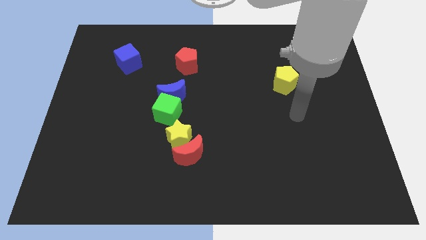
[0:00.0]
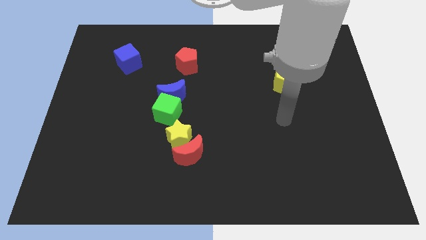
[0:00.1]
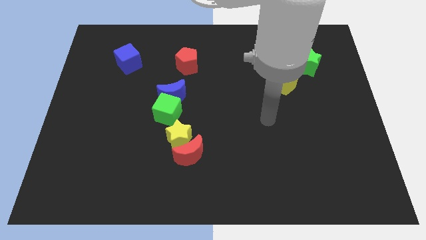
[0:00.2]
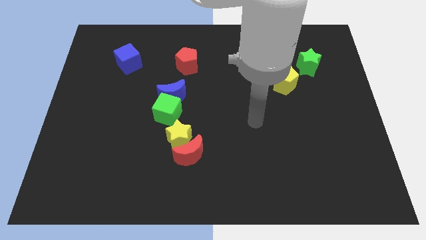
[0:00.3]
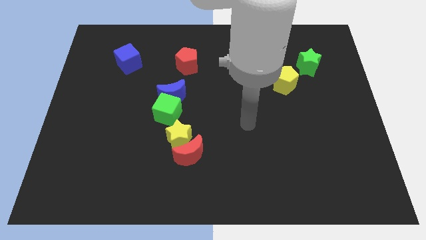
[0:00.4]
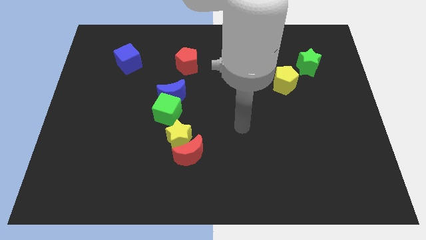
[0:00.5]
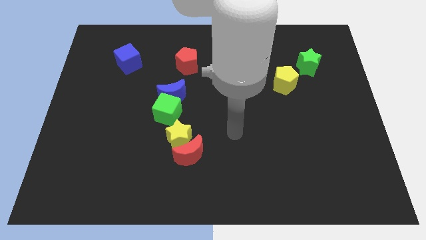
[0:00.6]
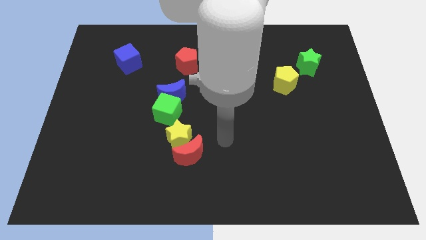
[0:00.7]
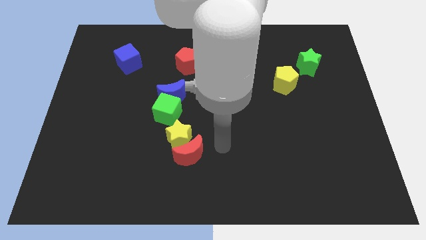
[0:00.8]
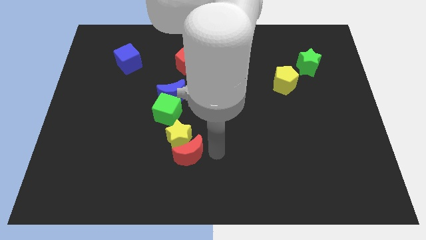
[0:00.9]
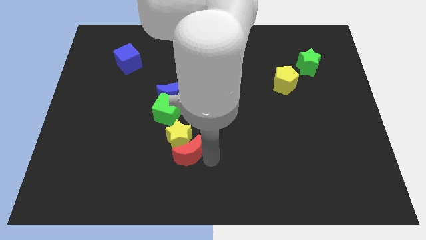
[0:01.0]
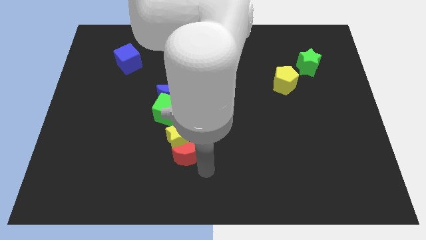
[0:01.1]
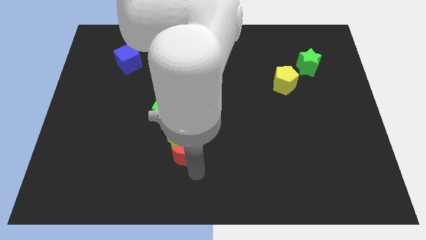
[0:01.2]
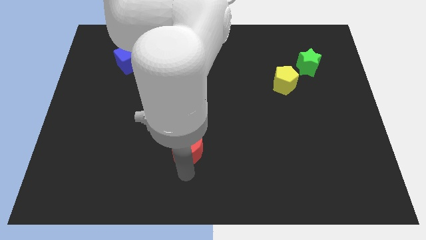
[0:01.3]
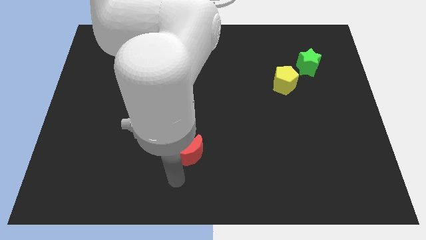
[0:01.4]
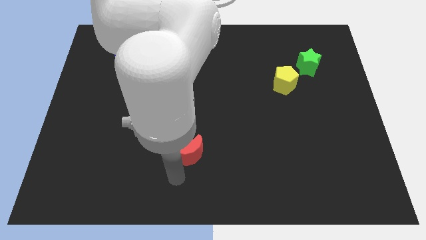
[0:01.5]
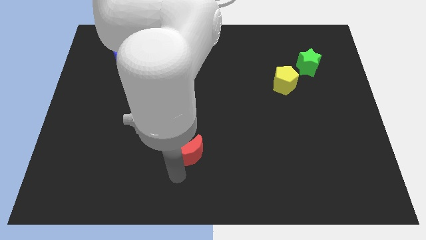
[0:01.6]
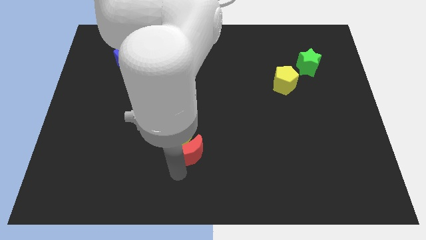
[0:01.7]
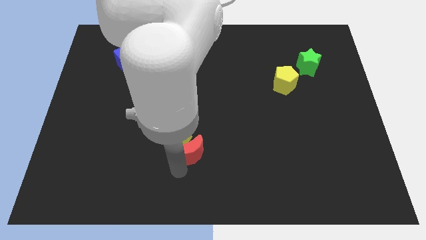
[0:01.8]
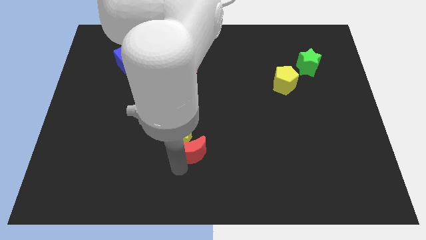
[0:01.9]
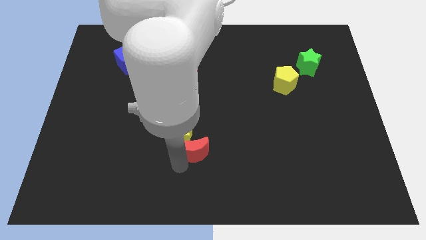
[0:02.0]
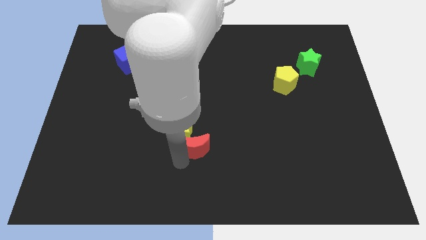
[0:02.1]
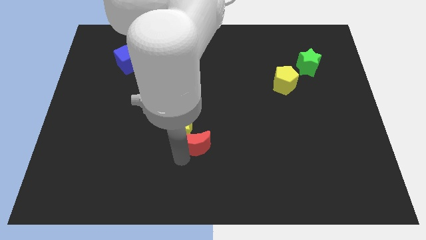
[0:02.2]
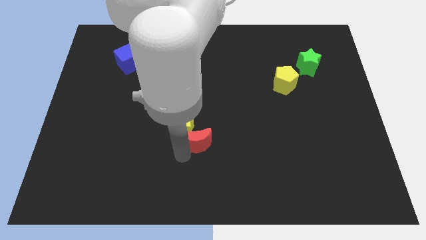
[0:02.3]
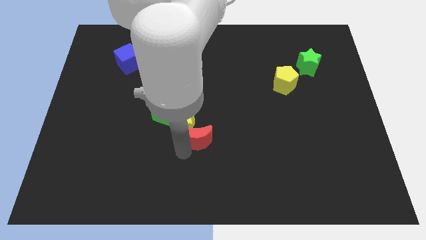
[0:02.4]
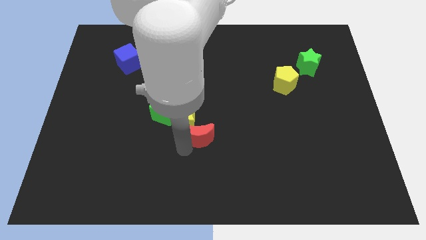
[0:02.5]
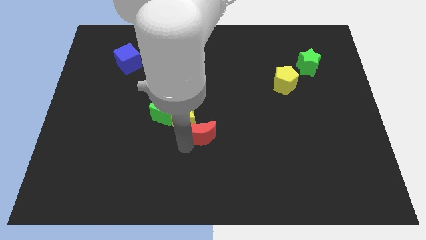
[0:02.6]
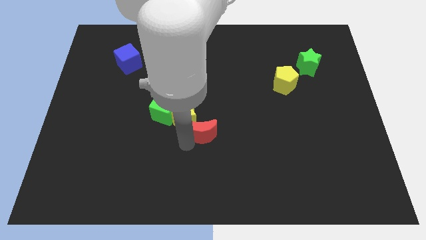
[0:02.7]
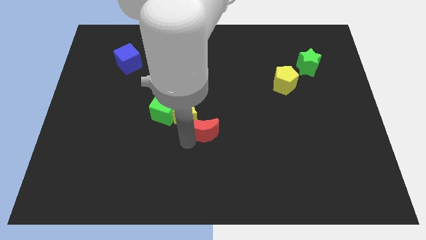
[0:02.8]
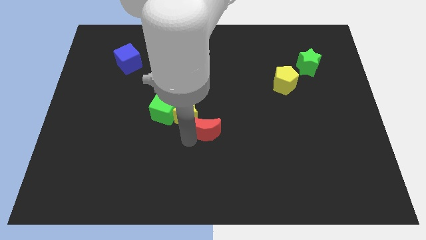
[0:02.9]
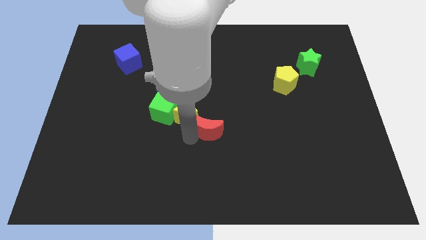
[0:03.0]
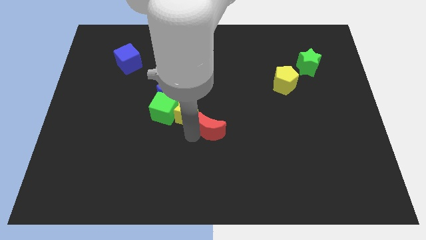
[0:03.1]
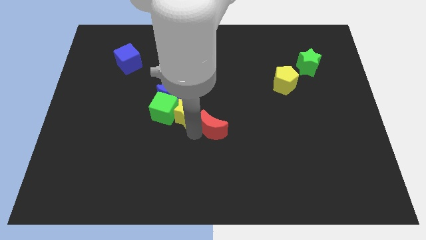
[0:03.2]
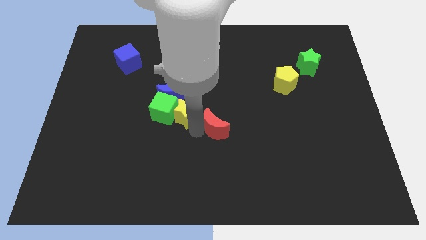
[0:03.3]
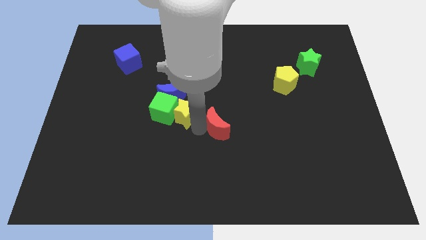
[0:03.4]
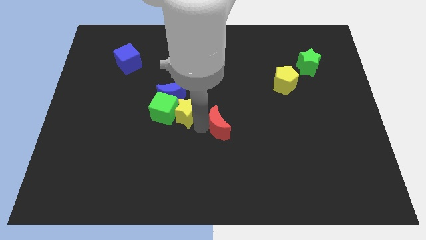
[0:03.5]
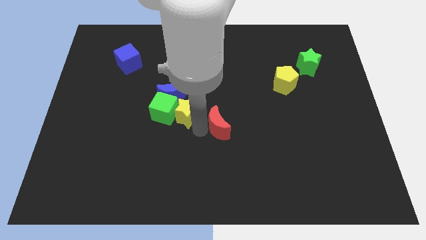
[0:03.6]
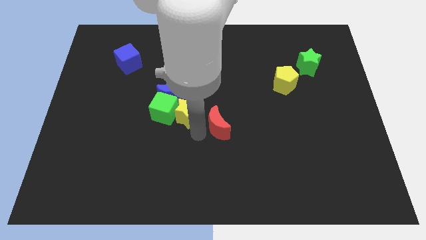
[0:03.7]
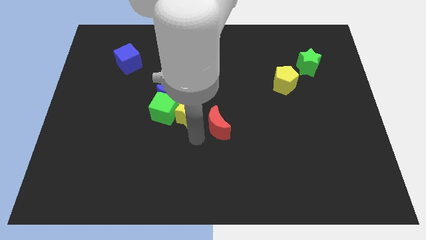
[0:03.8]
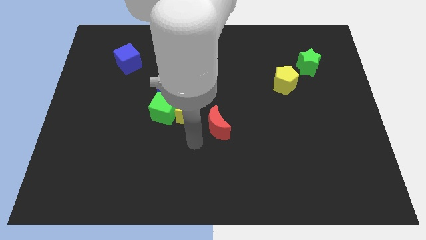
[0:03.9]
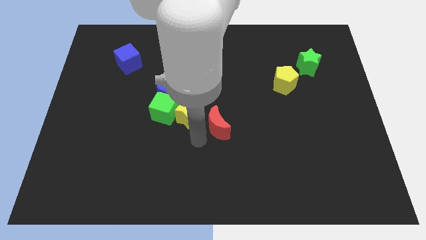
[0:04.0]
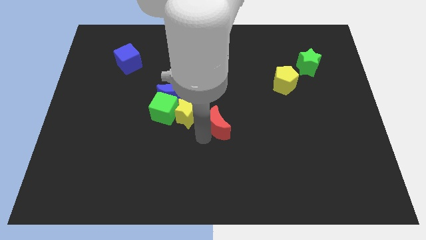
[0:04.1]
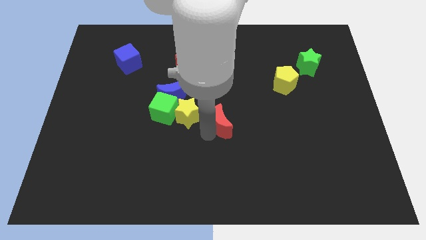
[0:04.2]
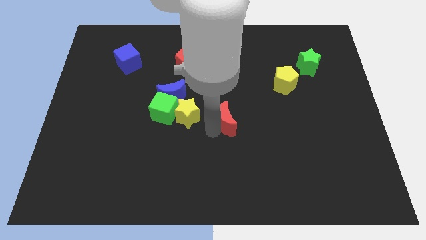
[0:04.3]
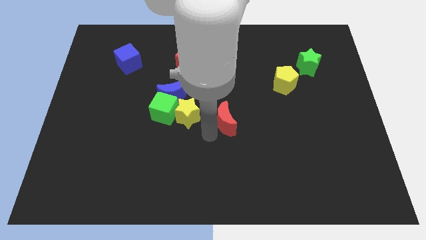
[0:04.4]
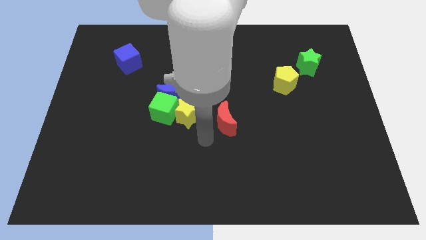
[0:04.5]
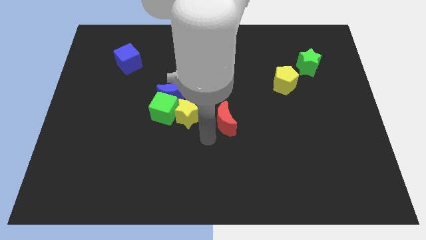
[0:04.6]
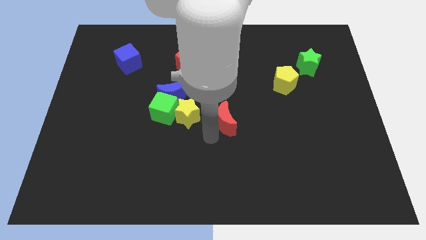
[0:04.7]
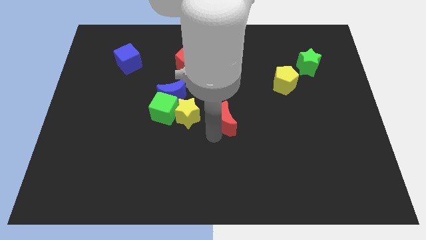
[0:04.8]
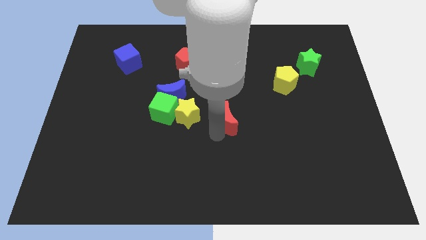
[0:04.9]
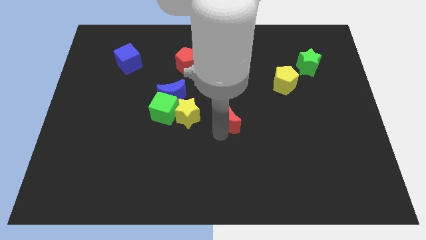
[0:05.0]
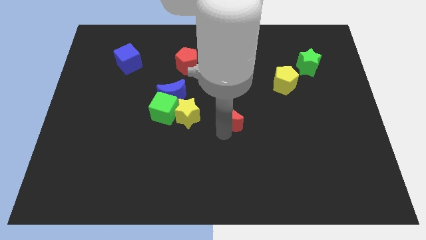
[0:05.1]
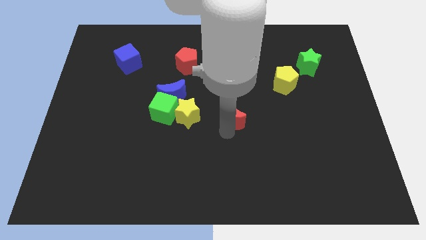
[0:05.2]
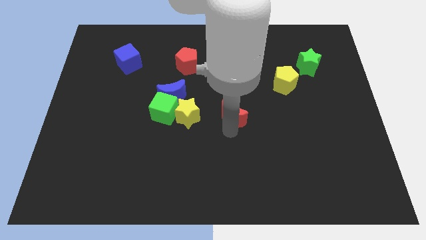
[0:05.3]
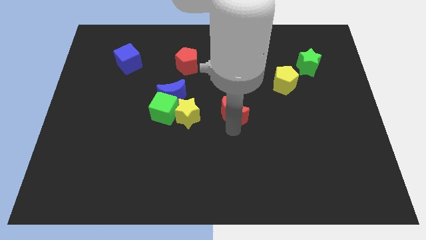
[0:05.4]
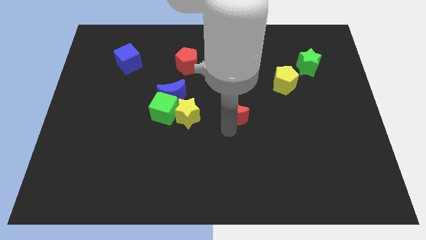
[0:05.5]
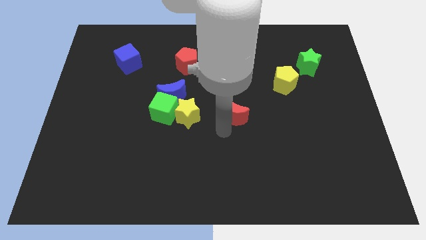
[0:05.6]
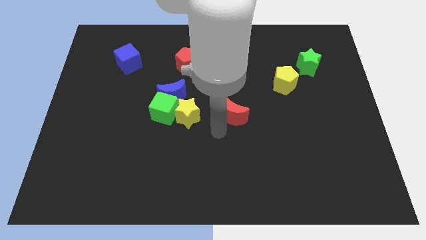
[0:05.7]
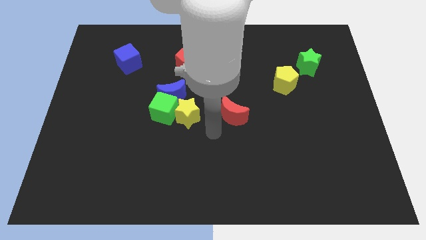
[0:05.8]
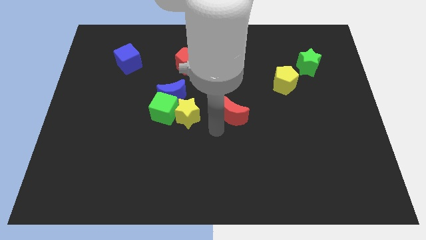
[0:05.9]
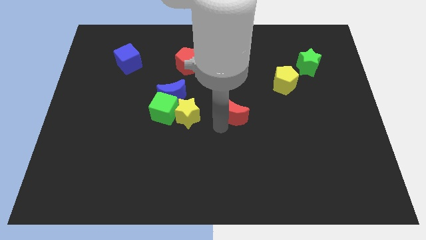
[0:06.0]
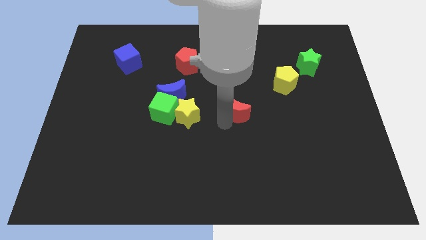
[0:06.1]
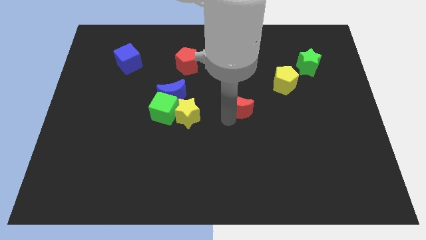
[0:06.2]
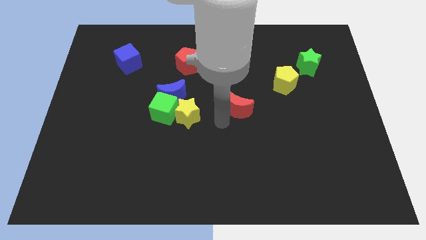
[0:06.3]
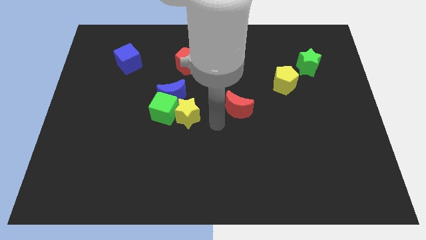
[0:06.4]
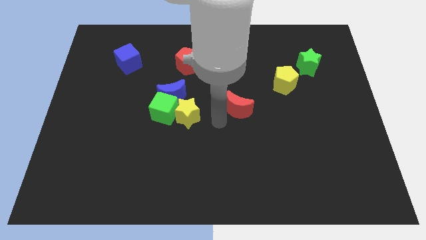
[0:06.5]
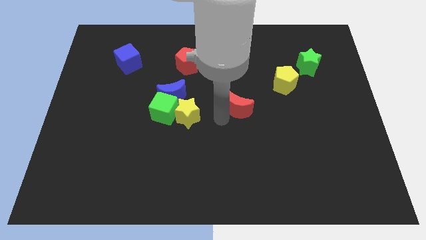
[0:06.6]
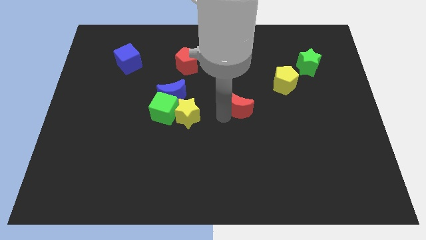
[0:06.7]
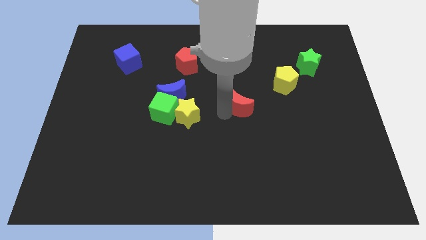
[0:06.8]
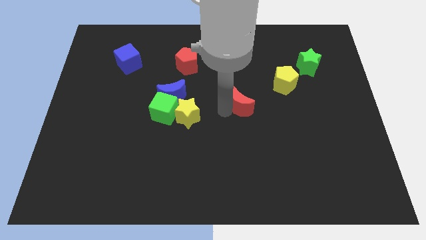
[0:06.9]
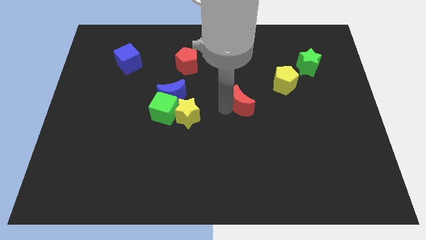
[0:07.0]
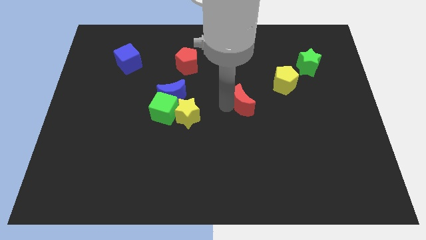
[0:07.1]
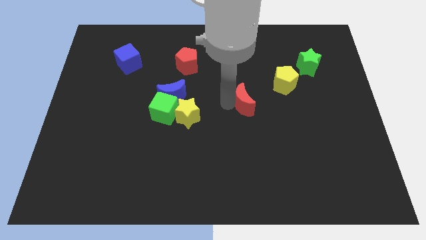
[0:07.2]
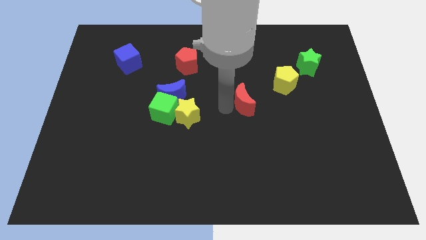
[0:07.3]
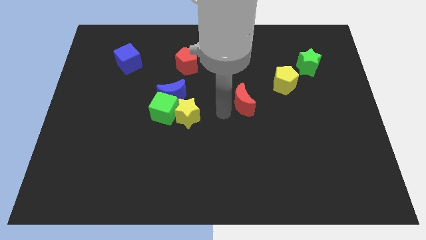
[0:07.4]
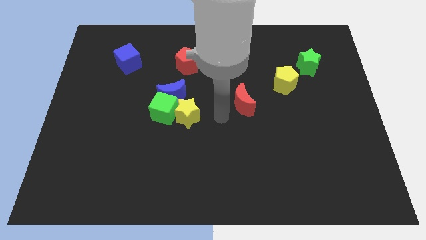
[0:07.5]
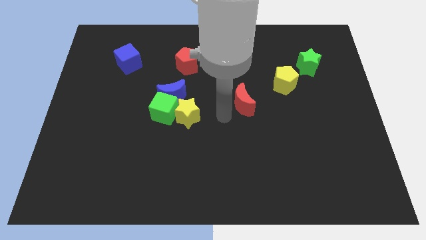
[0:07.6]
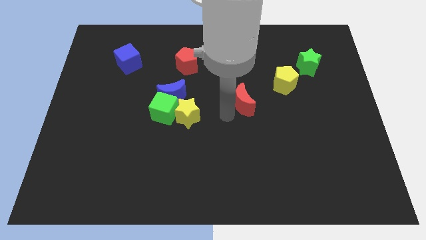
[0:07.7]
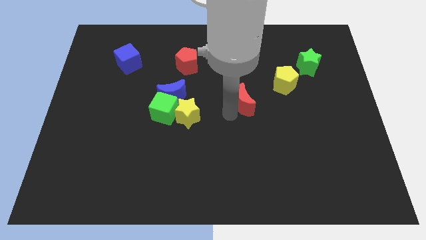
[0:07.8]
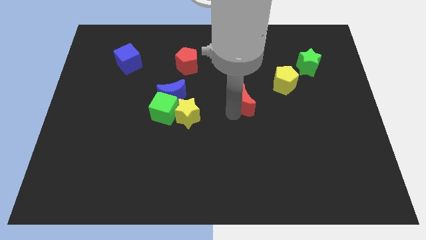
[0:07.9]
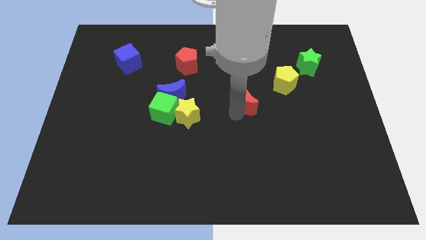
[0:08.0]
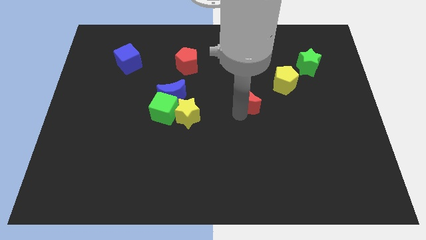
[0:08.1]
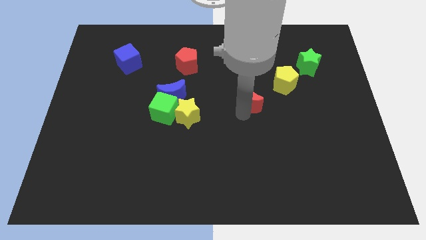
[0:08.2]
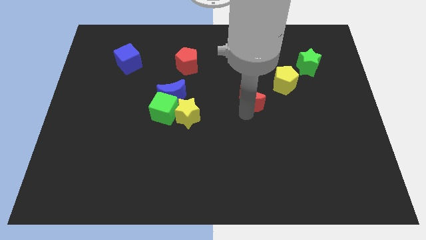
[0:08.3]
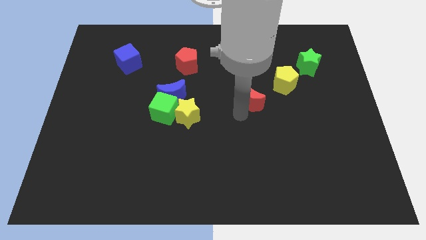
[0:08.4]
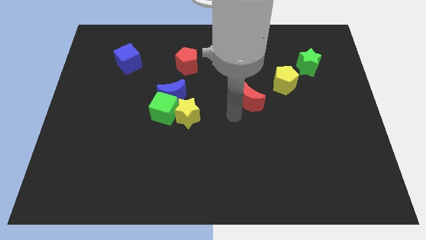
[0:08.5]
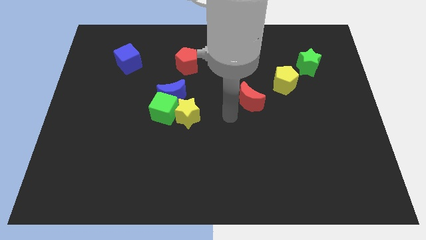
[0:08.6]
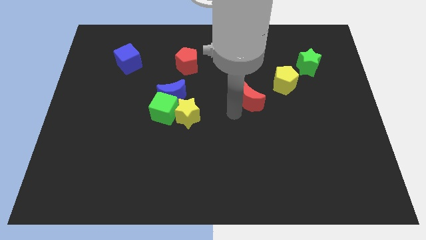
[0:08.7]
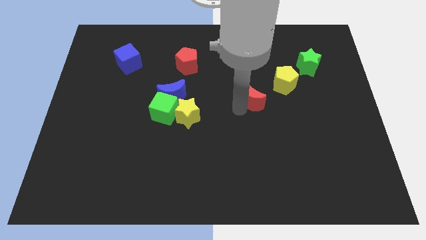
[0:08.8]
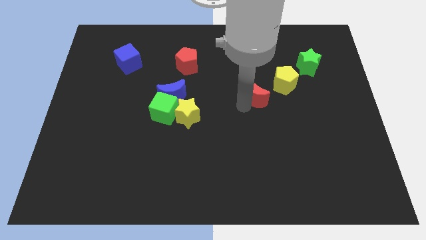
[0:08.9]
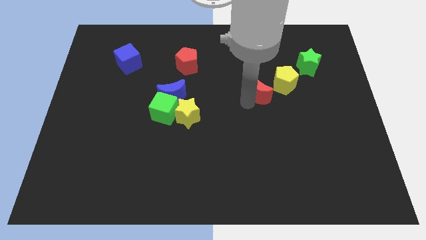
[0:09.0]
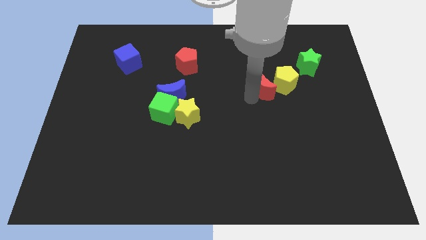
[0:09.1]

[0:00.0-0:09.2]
push the red moon close to the yellow pentagon
